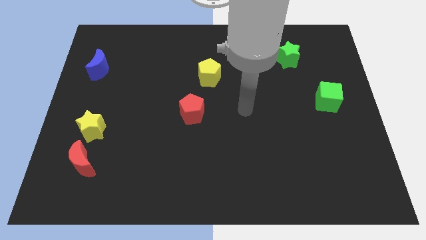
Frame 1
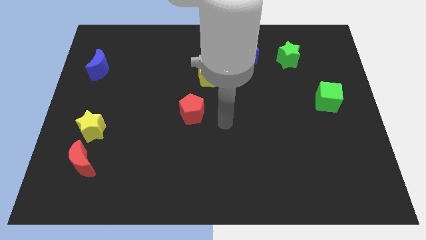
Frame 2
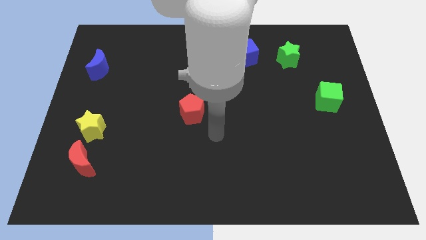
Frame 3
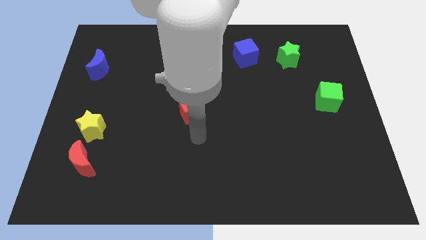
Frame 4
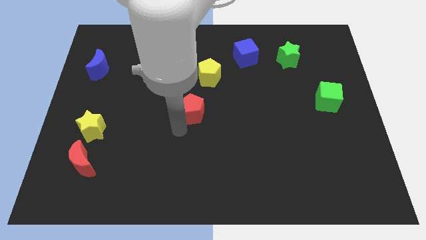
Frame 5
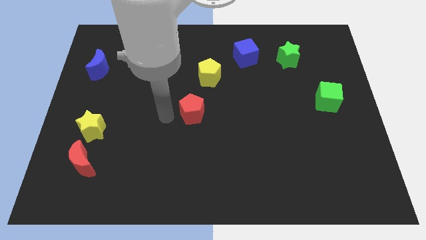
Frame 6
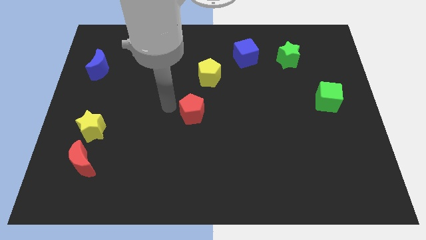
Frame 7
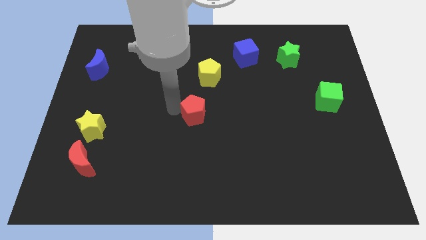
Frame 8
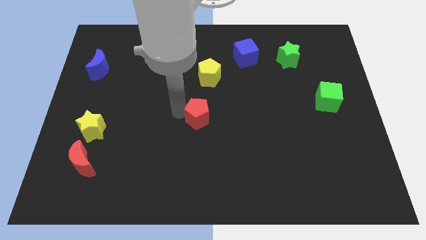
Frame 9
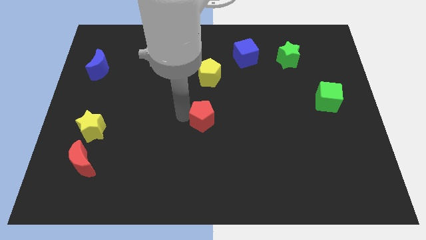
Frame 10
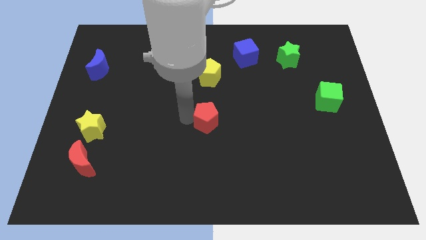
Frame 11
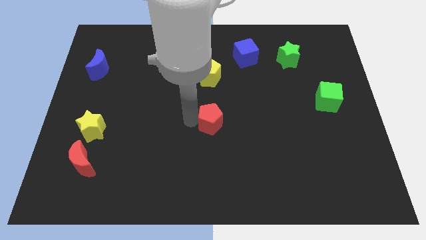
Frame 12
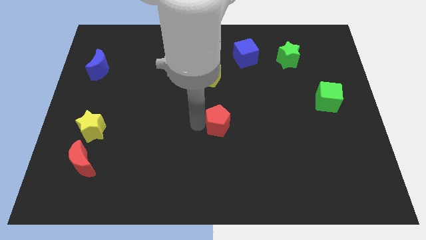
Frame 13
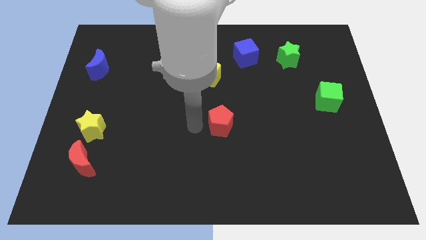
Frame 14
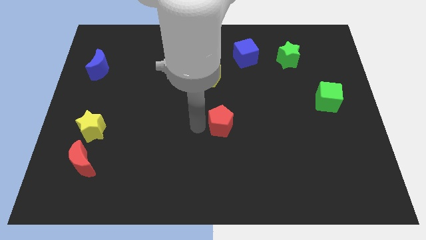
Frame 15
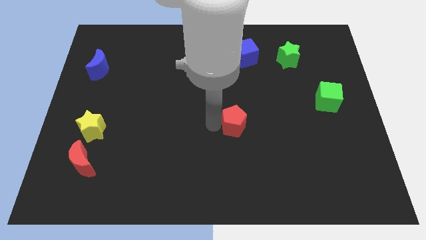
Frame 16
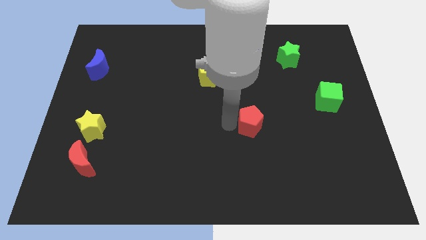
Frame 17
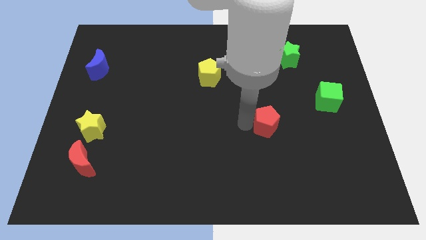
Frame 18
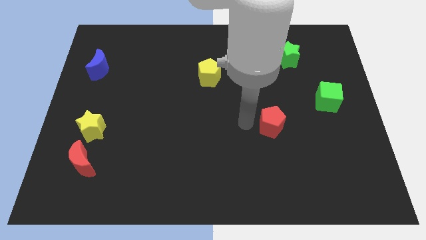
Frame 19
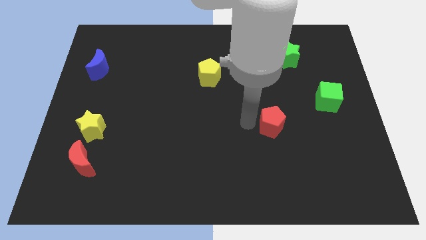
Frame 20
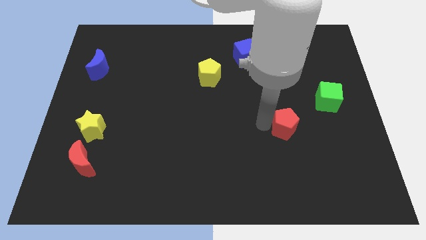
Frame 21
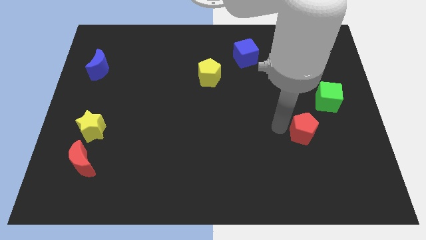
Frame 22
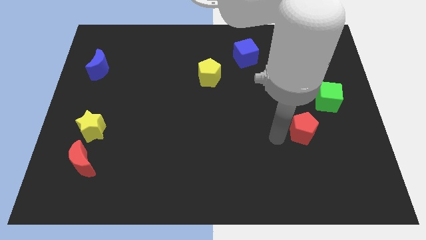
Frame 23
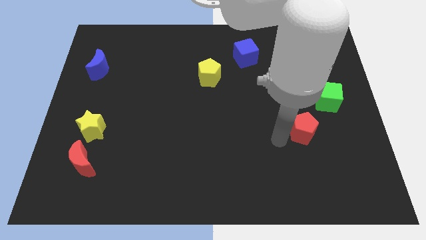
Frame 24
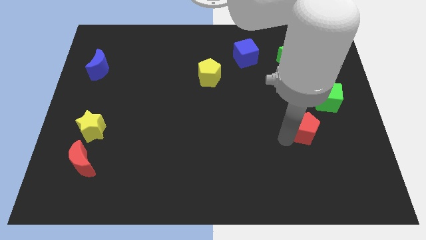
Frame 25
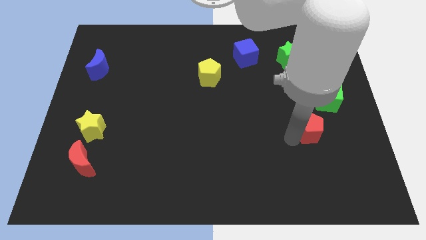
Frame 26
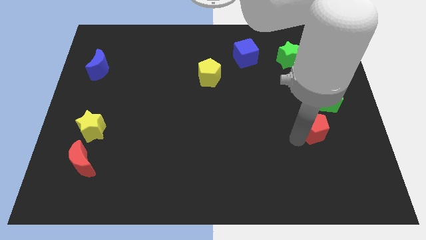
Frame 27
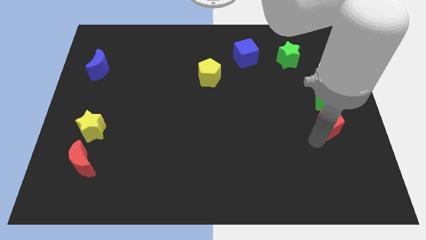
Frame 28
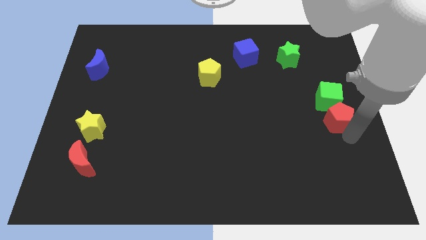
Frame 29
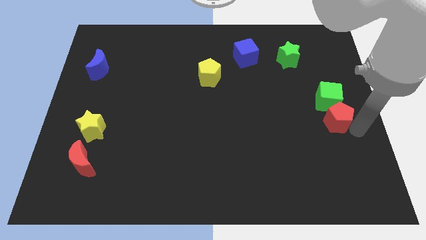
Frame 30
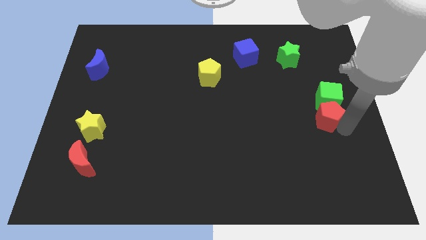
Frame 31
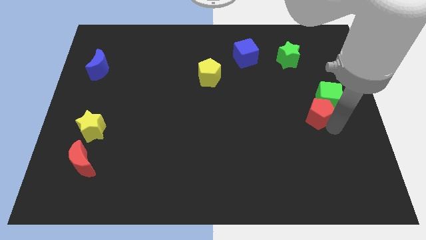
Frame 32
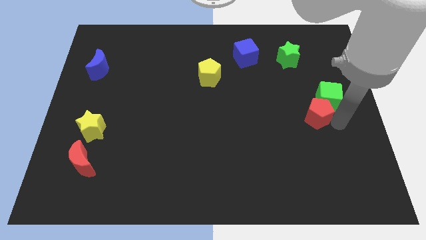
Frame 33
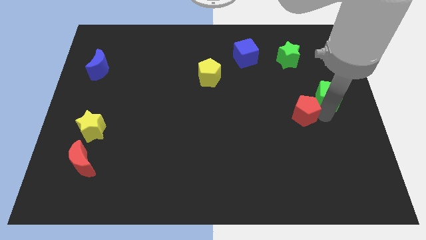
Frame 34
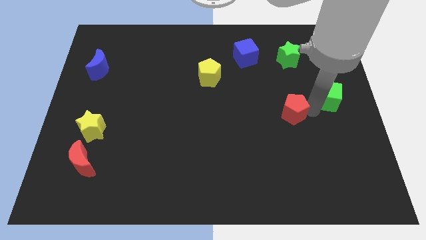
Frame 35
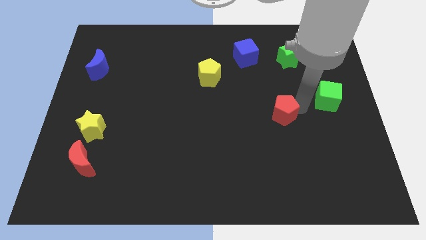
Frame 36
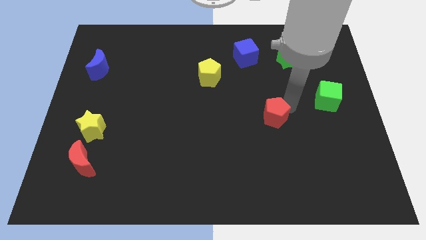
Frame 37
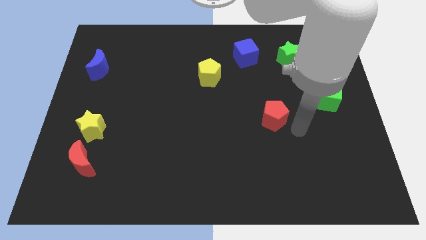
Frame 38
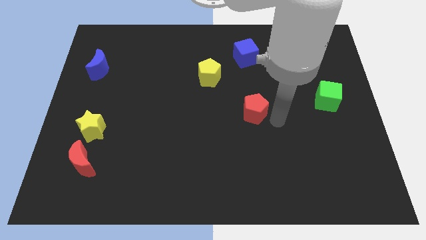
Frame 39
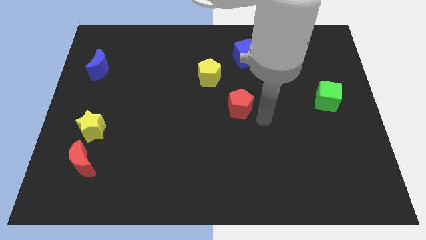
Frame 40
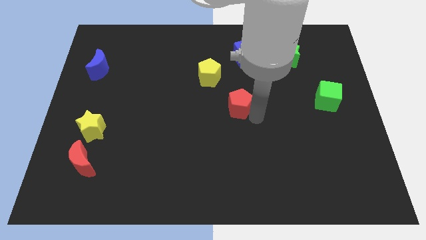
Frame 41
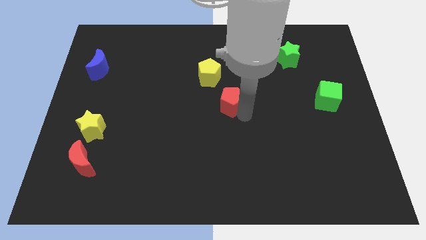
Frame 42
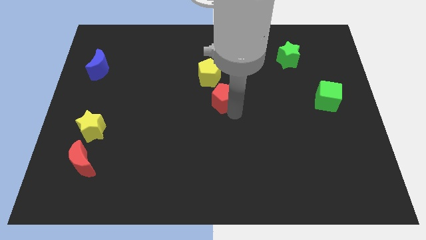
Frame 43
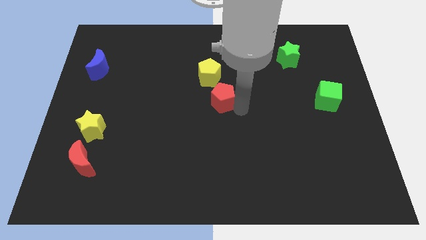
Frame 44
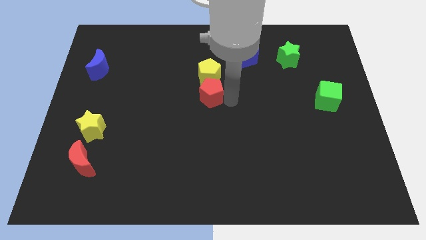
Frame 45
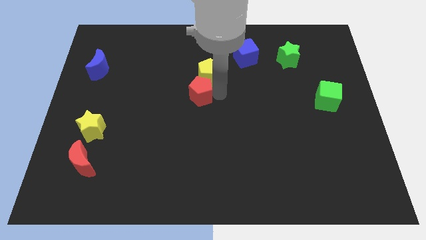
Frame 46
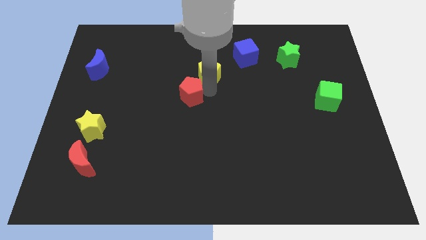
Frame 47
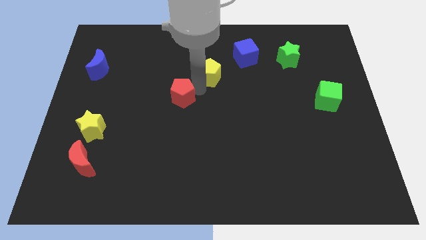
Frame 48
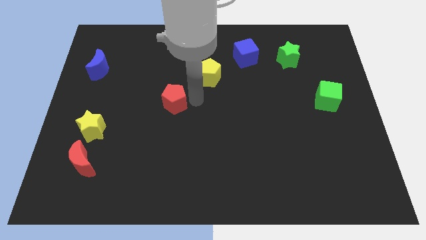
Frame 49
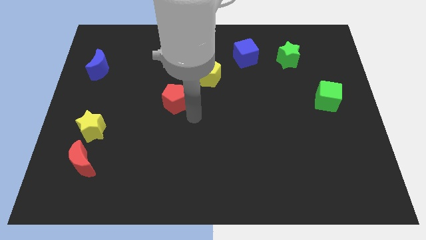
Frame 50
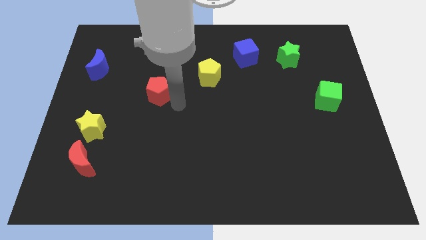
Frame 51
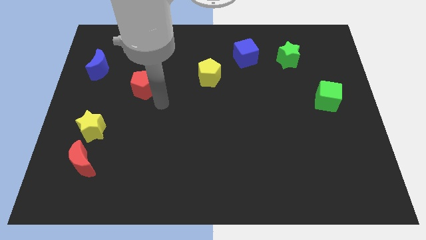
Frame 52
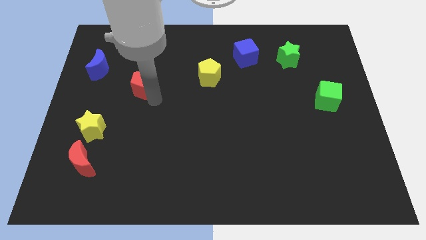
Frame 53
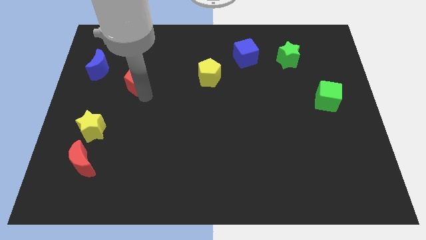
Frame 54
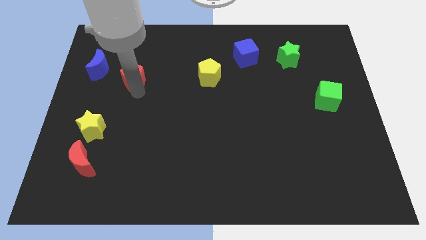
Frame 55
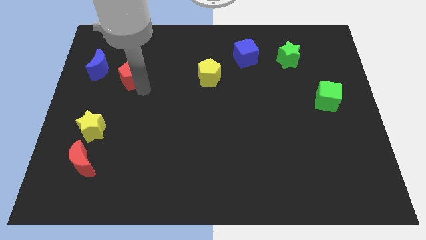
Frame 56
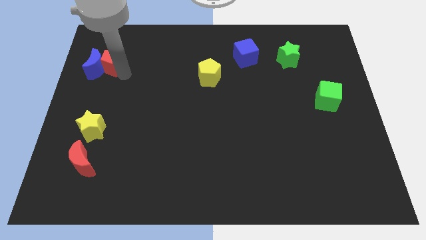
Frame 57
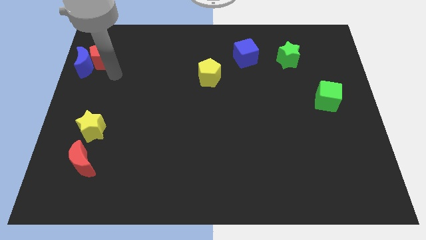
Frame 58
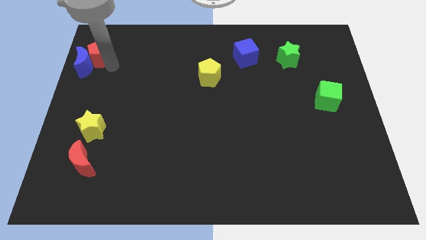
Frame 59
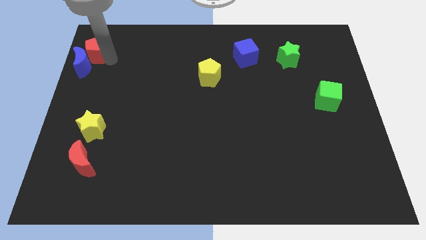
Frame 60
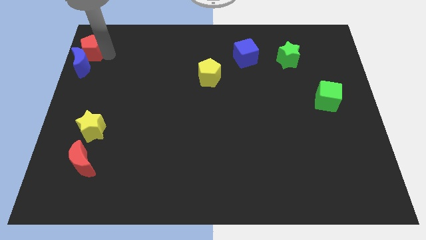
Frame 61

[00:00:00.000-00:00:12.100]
slide the red pentagon to the top left corner

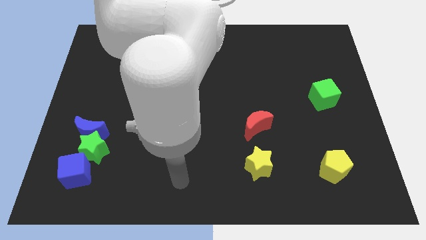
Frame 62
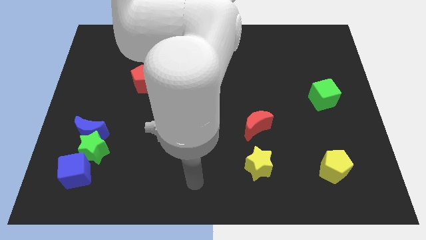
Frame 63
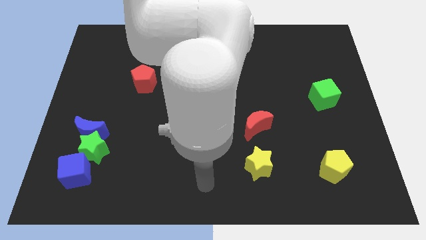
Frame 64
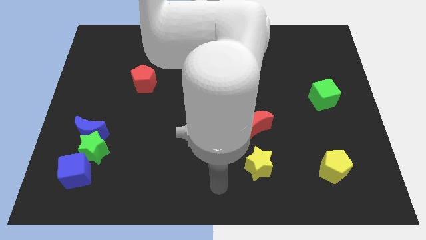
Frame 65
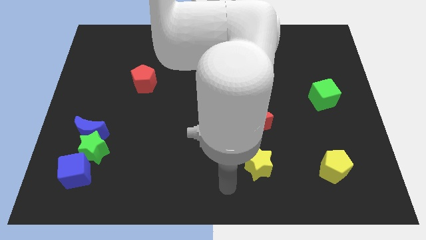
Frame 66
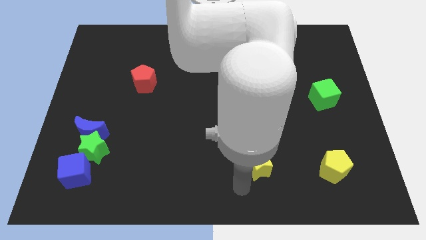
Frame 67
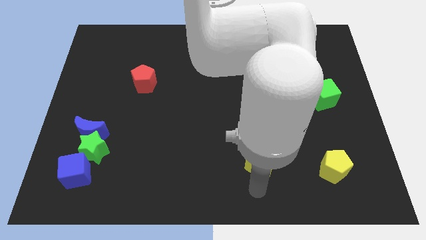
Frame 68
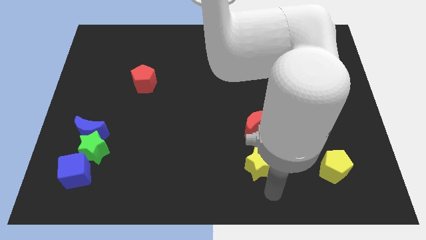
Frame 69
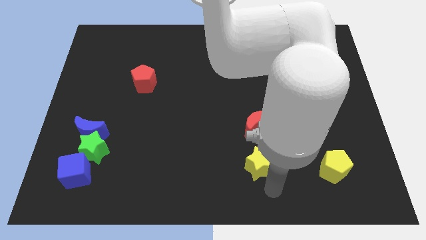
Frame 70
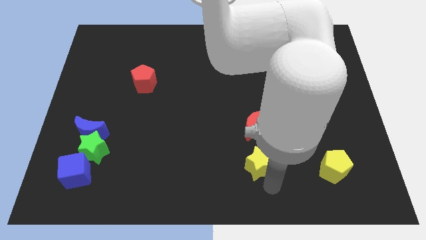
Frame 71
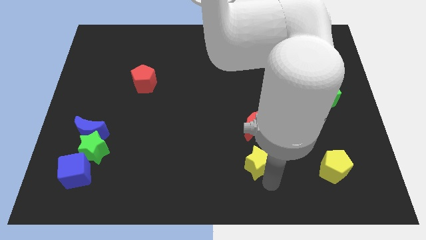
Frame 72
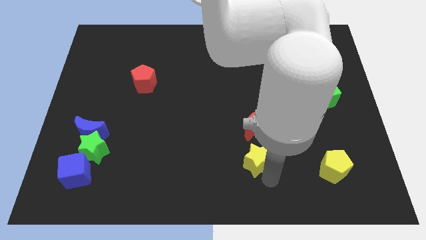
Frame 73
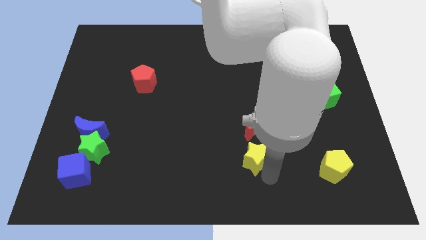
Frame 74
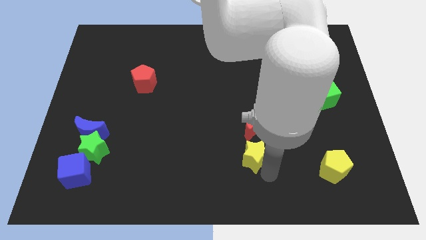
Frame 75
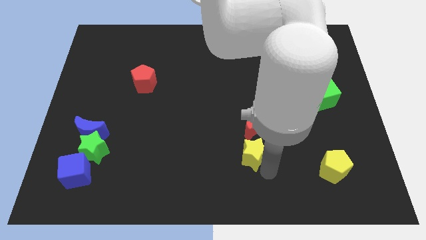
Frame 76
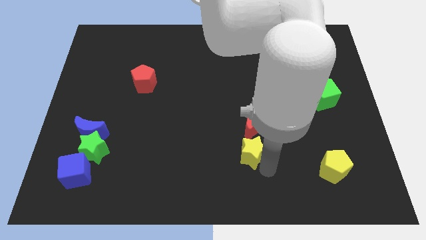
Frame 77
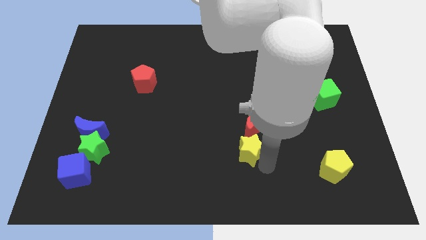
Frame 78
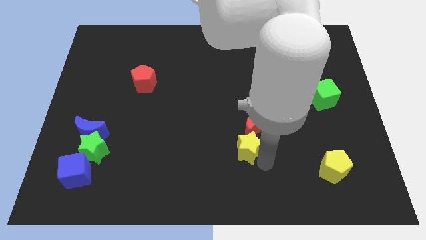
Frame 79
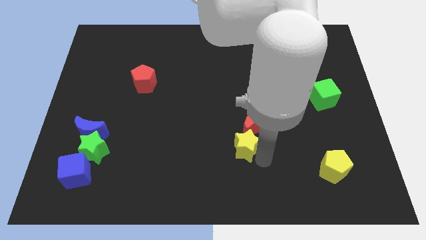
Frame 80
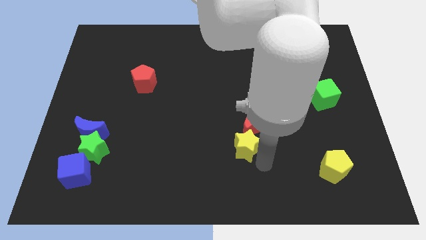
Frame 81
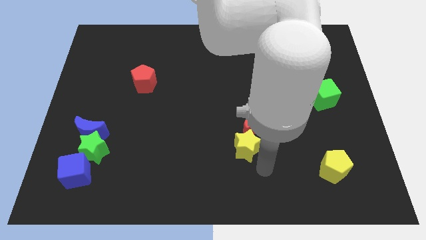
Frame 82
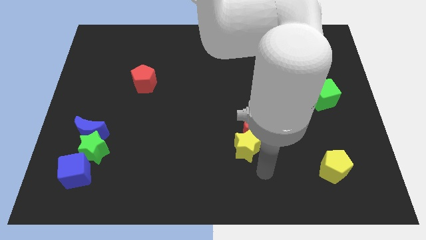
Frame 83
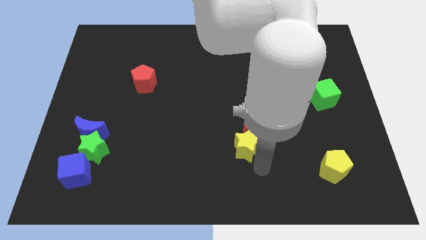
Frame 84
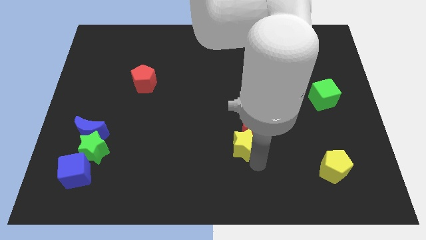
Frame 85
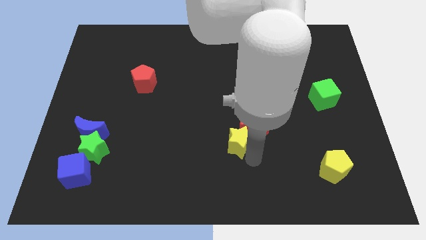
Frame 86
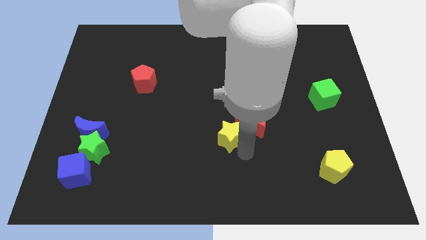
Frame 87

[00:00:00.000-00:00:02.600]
slide the yellow star to the middle of the board
